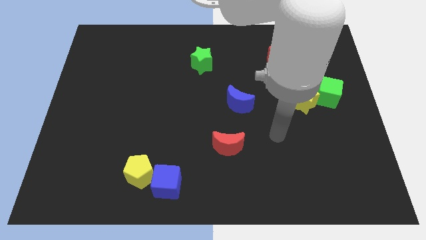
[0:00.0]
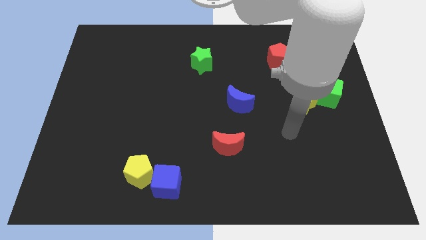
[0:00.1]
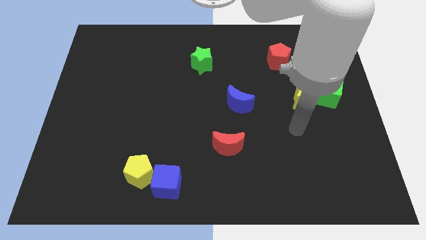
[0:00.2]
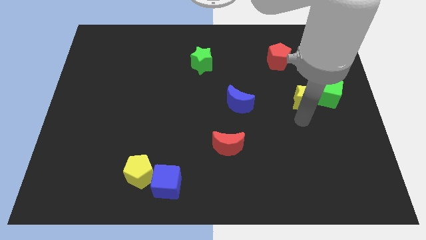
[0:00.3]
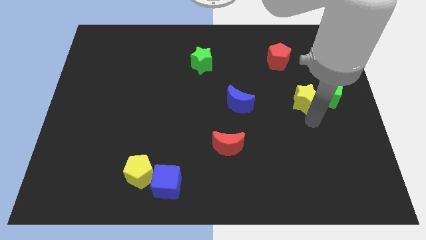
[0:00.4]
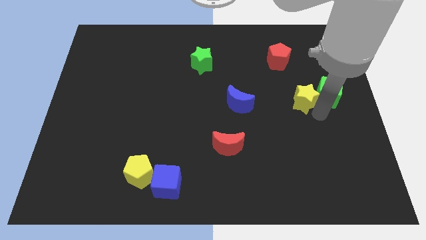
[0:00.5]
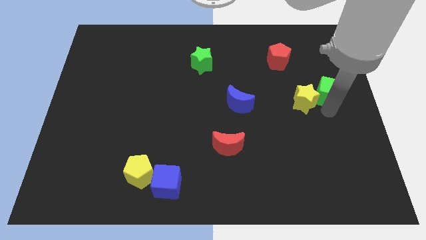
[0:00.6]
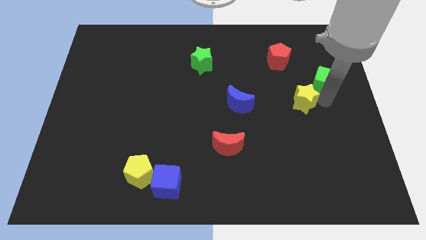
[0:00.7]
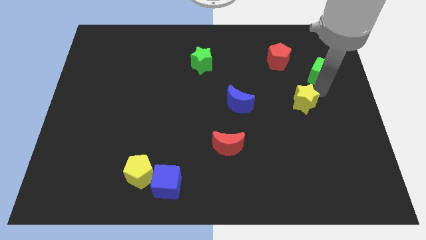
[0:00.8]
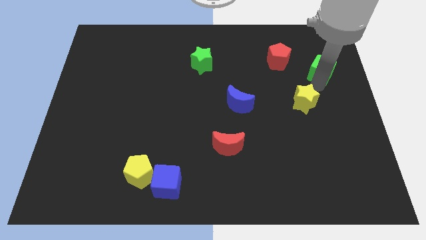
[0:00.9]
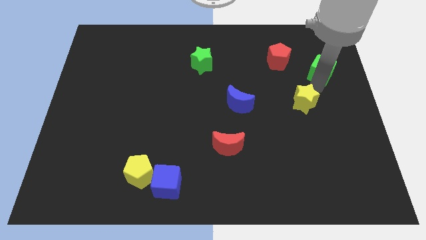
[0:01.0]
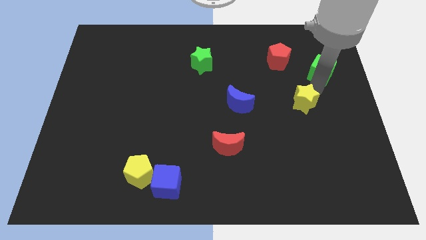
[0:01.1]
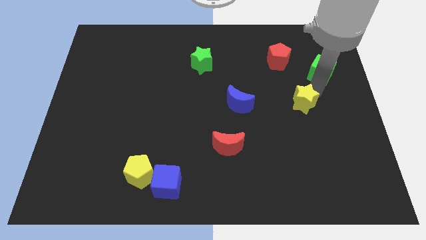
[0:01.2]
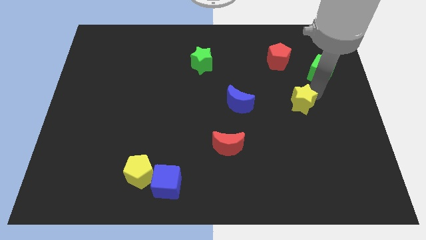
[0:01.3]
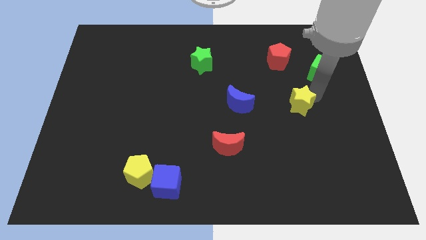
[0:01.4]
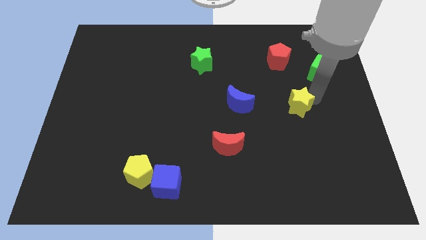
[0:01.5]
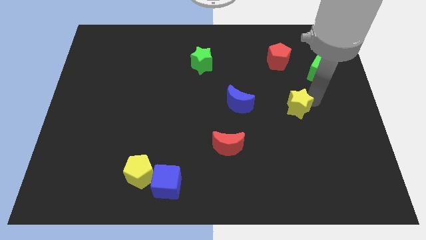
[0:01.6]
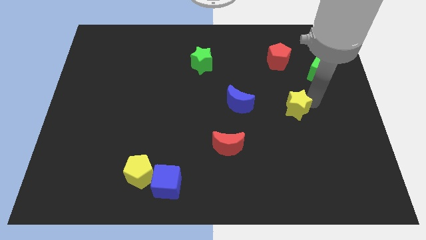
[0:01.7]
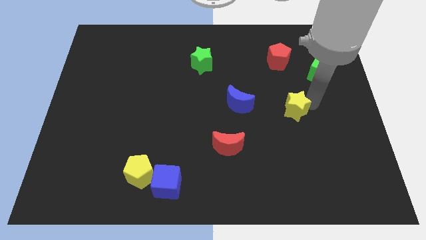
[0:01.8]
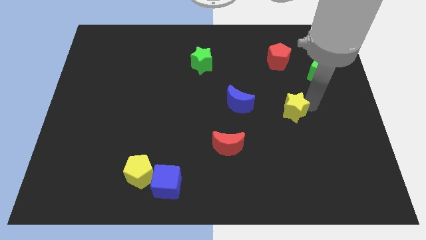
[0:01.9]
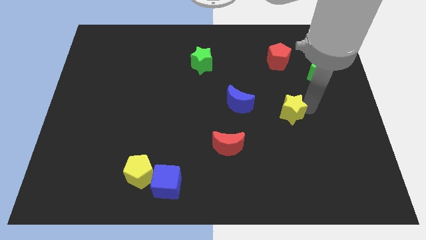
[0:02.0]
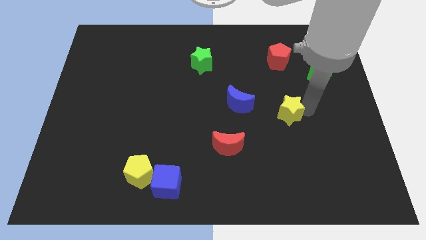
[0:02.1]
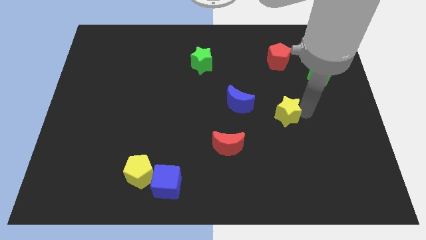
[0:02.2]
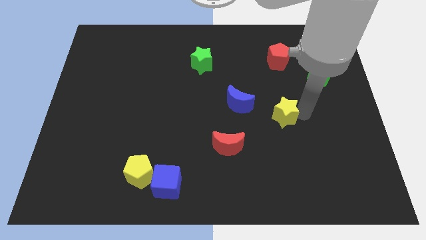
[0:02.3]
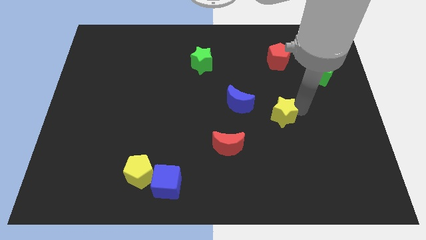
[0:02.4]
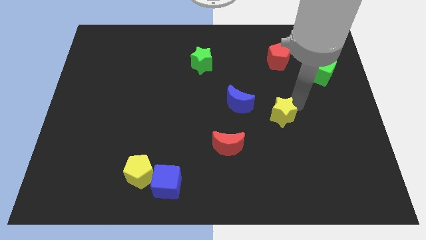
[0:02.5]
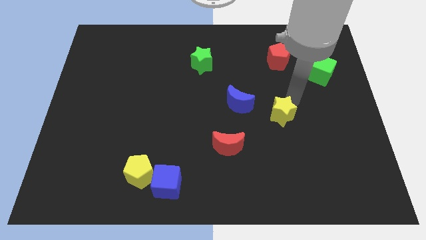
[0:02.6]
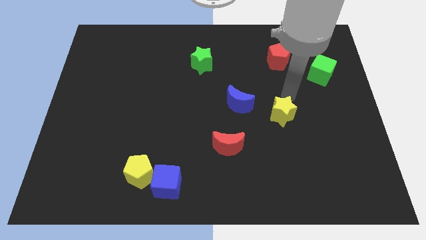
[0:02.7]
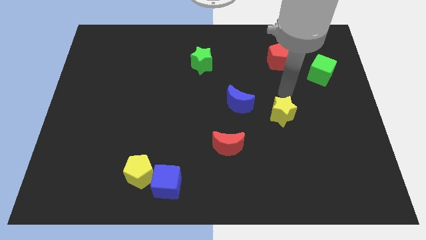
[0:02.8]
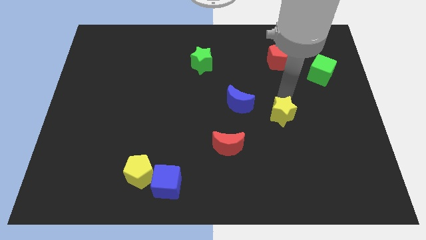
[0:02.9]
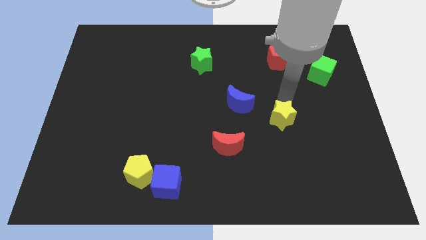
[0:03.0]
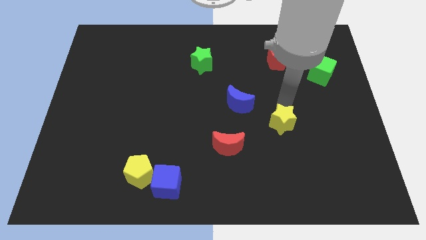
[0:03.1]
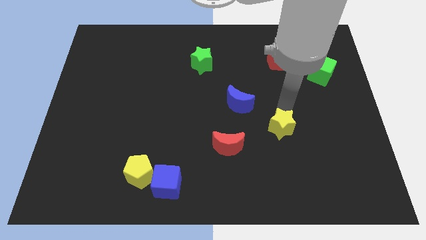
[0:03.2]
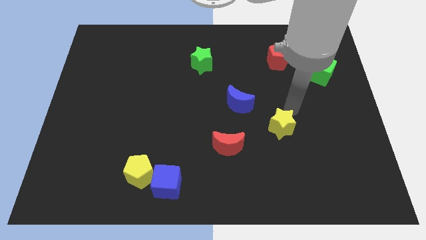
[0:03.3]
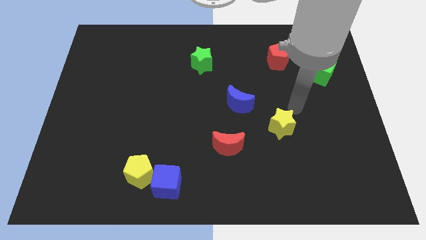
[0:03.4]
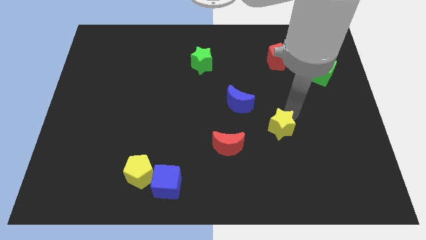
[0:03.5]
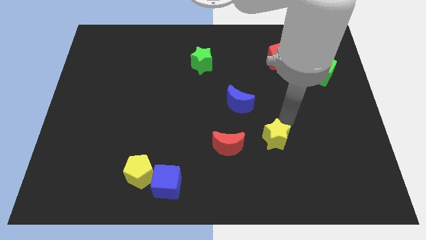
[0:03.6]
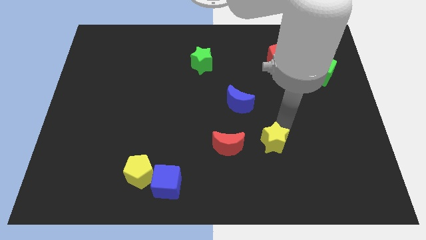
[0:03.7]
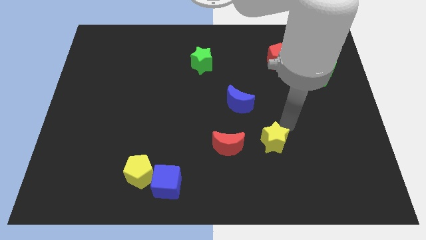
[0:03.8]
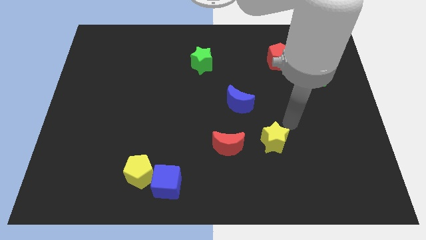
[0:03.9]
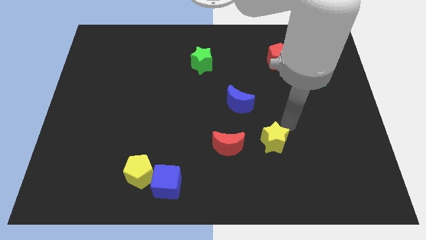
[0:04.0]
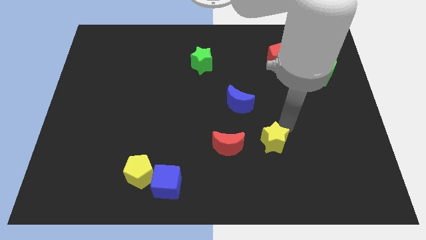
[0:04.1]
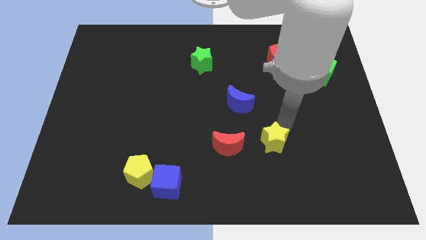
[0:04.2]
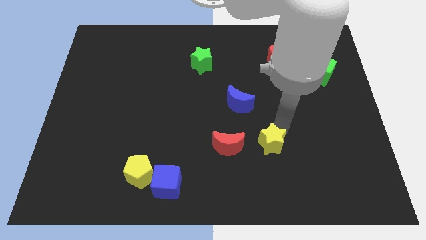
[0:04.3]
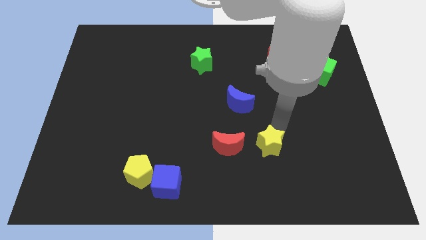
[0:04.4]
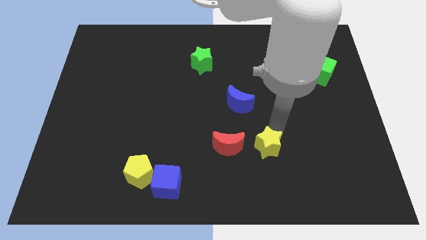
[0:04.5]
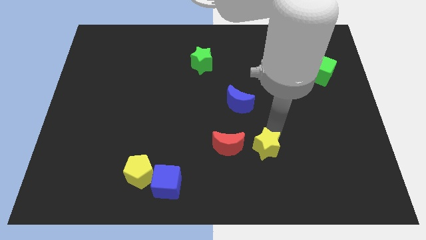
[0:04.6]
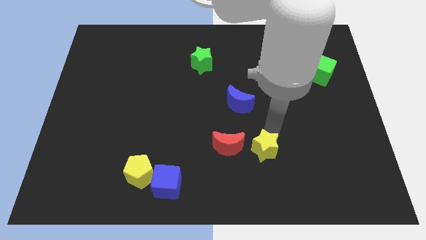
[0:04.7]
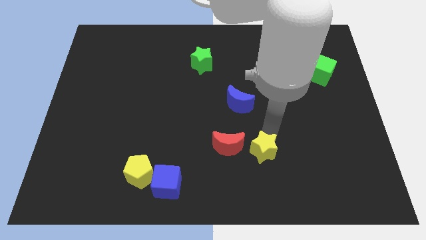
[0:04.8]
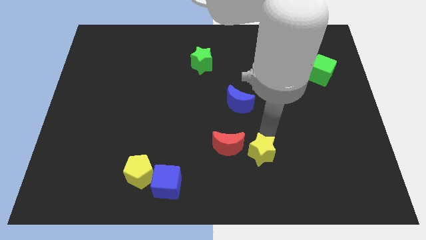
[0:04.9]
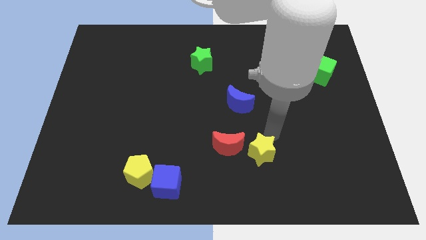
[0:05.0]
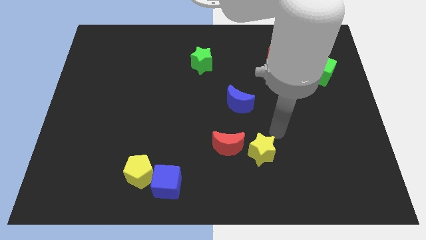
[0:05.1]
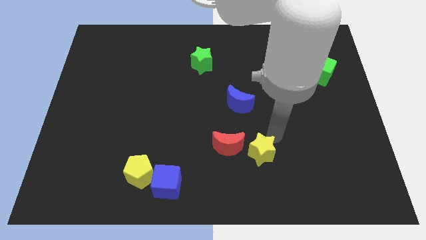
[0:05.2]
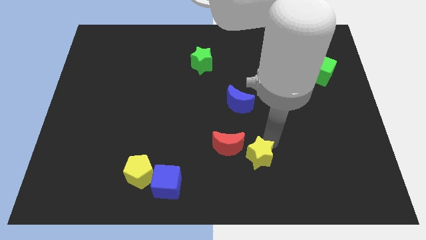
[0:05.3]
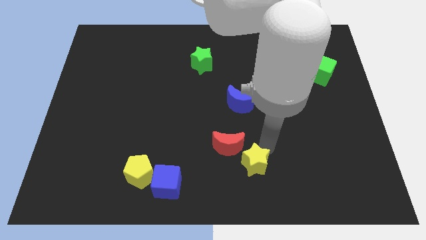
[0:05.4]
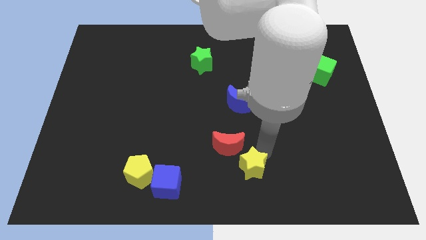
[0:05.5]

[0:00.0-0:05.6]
push the yellow star to the bottom
